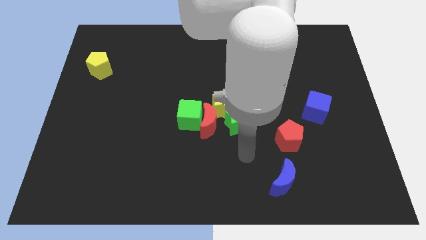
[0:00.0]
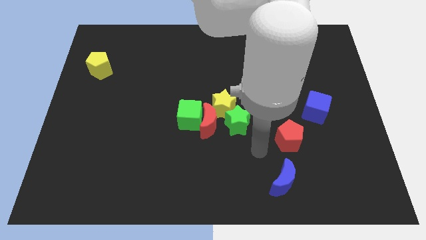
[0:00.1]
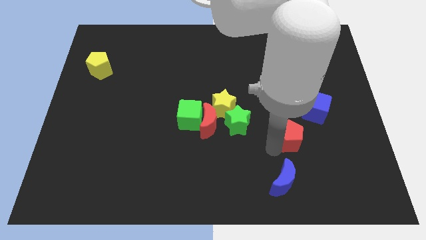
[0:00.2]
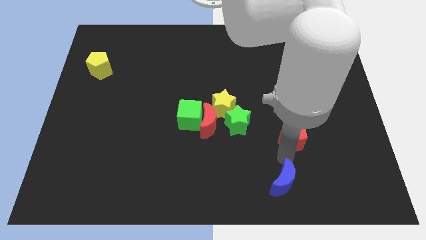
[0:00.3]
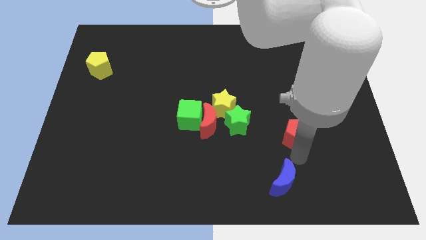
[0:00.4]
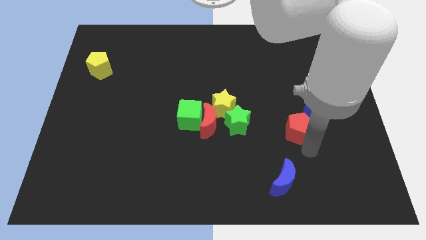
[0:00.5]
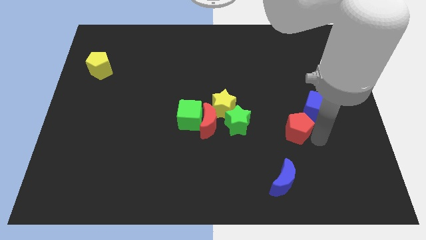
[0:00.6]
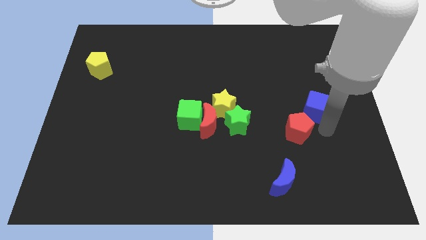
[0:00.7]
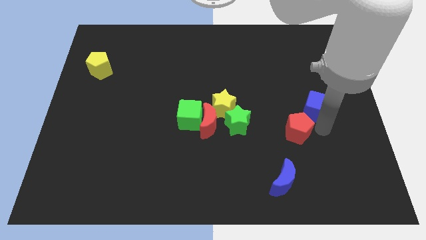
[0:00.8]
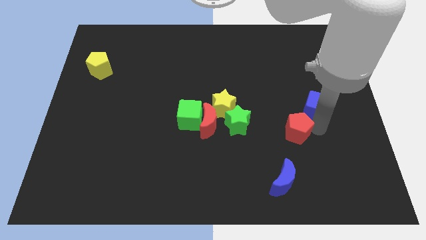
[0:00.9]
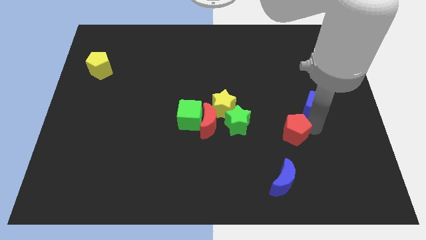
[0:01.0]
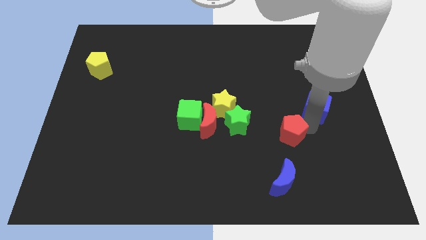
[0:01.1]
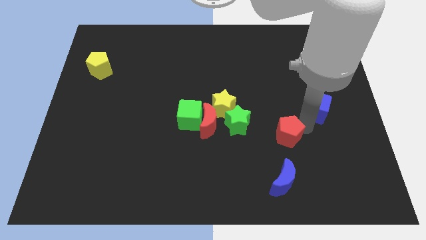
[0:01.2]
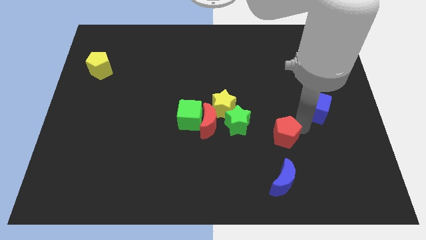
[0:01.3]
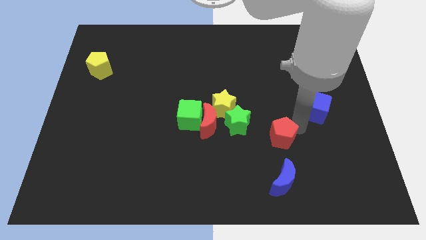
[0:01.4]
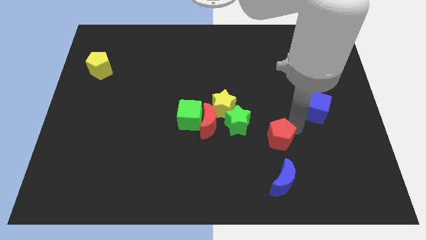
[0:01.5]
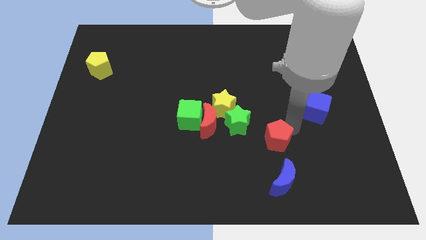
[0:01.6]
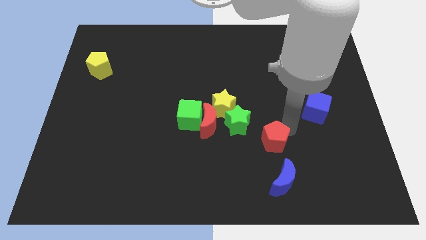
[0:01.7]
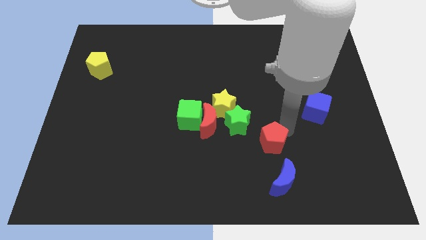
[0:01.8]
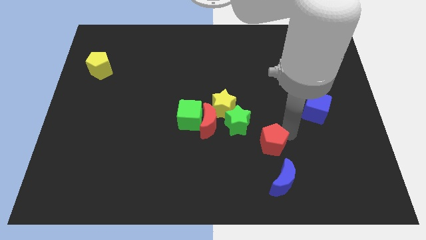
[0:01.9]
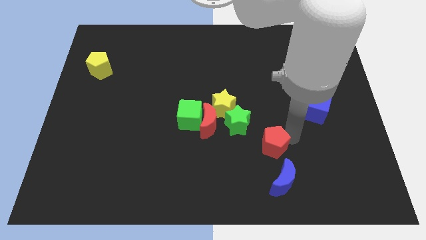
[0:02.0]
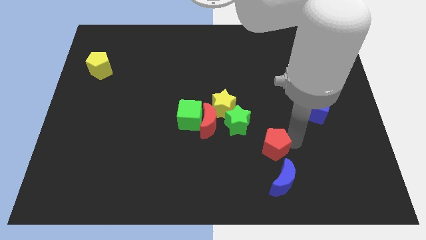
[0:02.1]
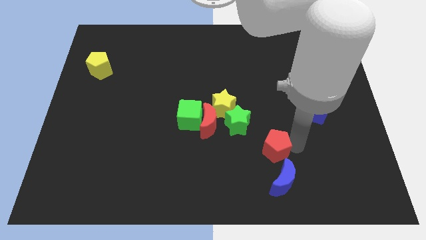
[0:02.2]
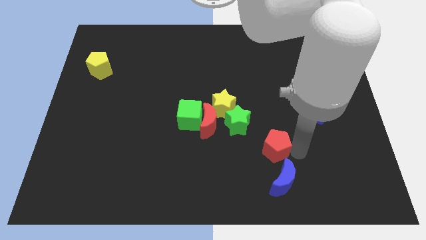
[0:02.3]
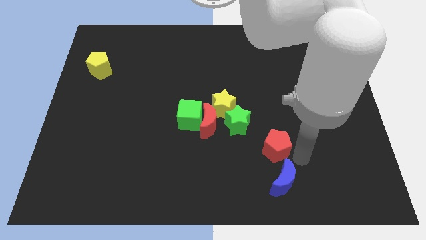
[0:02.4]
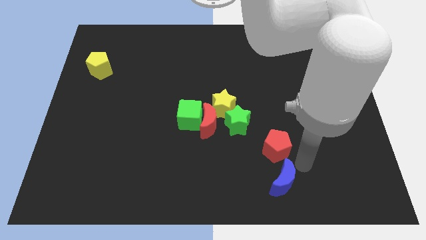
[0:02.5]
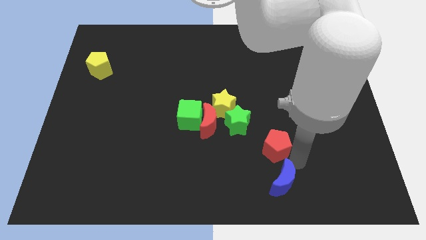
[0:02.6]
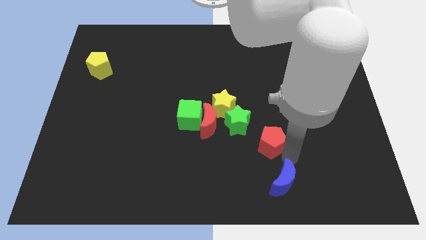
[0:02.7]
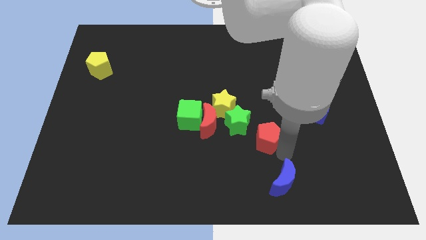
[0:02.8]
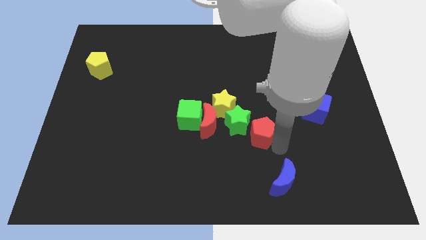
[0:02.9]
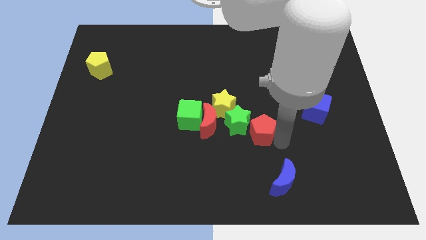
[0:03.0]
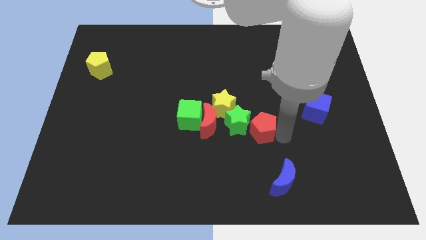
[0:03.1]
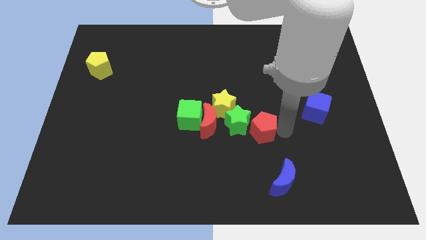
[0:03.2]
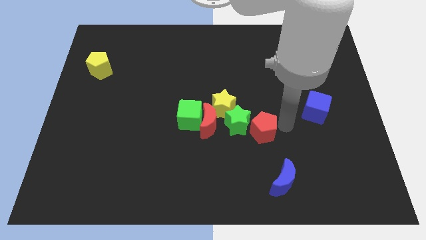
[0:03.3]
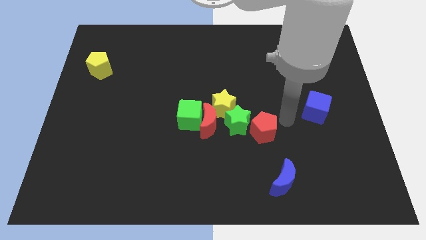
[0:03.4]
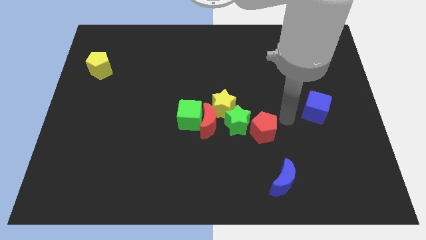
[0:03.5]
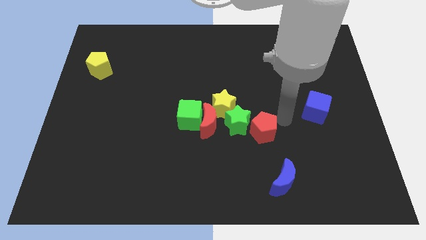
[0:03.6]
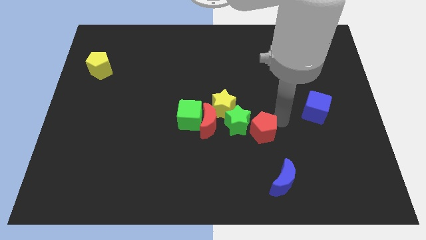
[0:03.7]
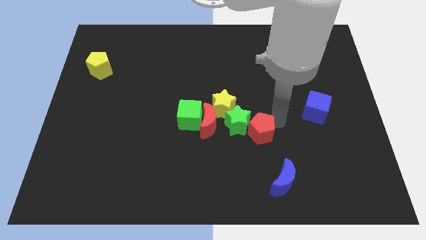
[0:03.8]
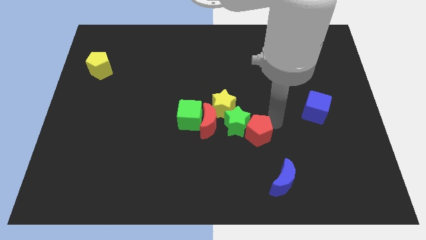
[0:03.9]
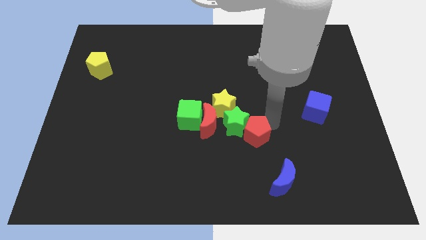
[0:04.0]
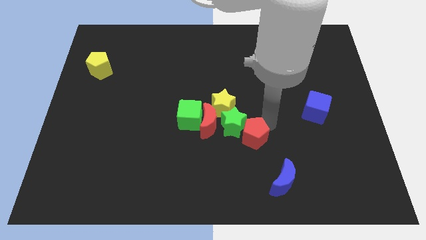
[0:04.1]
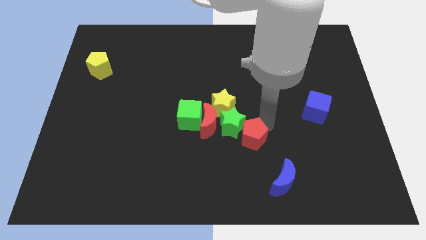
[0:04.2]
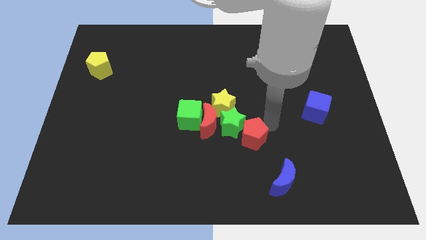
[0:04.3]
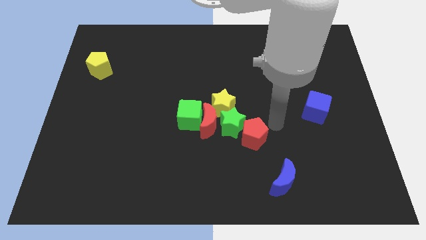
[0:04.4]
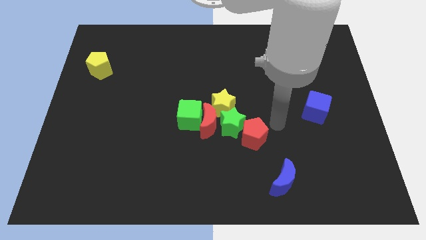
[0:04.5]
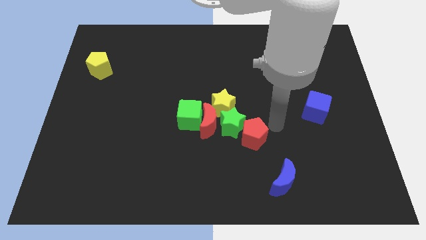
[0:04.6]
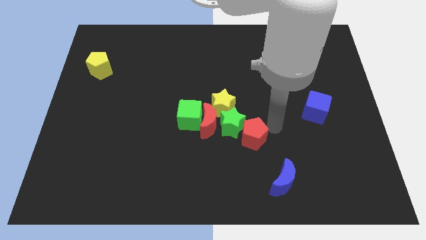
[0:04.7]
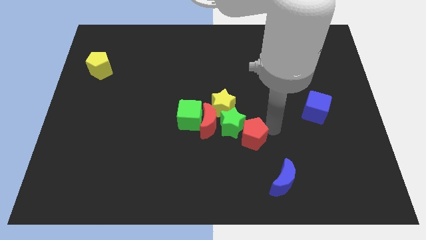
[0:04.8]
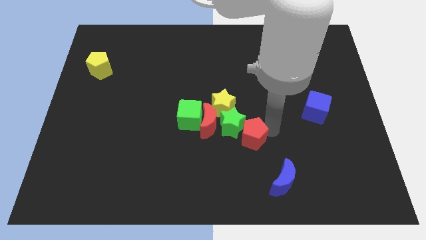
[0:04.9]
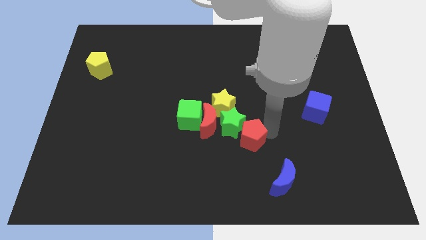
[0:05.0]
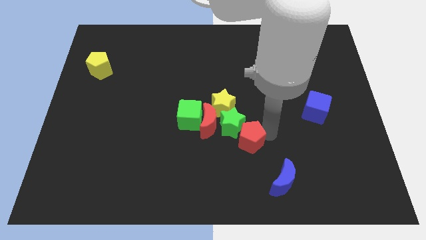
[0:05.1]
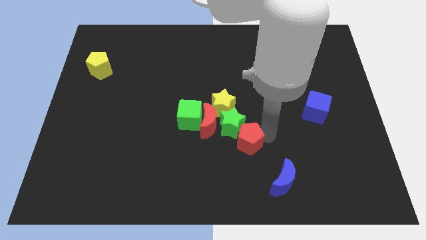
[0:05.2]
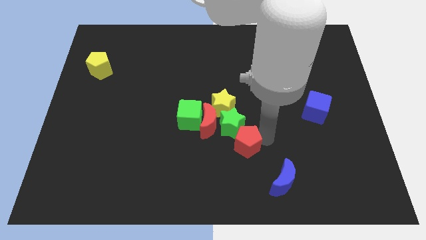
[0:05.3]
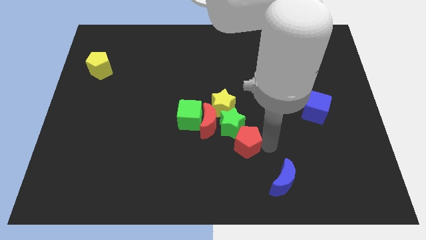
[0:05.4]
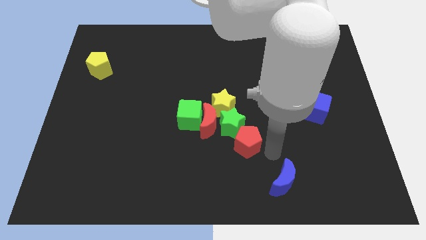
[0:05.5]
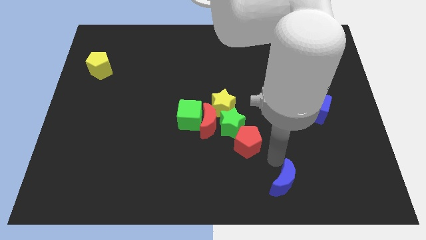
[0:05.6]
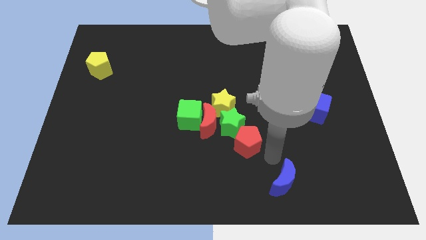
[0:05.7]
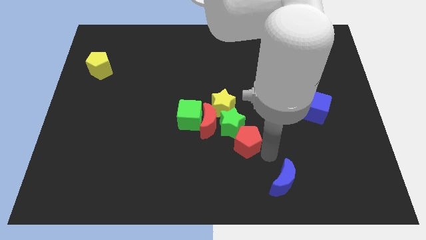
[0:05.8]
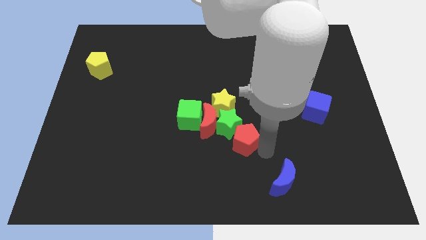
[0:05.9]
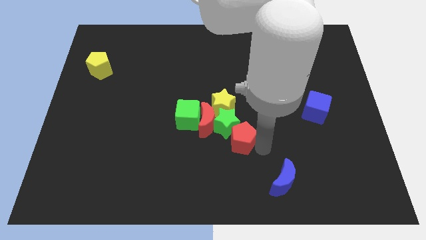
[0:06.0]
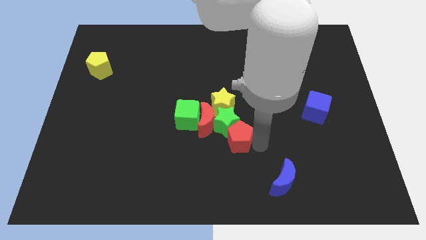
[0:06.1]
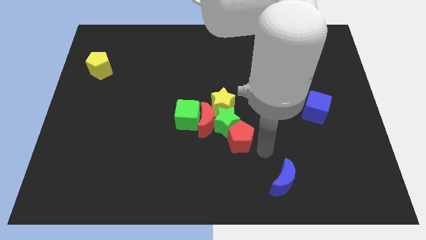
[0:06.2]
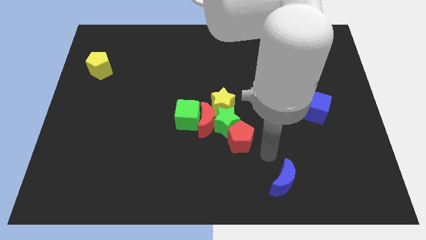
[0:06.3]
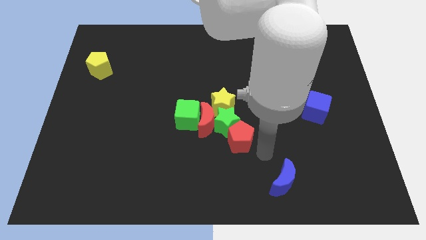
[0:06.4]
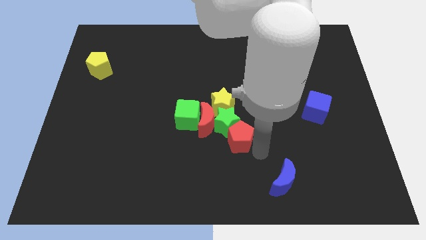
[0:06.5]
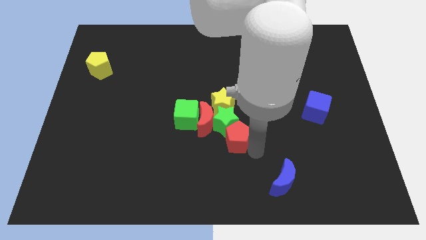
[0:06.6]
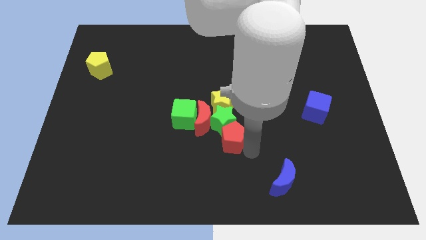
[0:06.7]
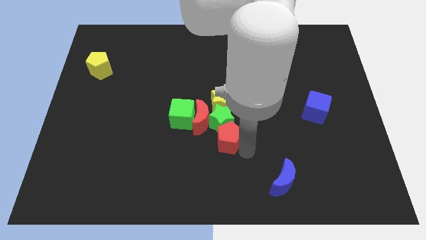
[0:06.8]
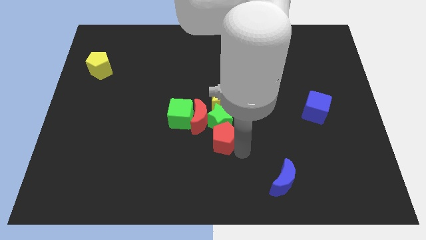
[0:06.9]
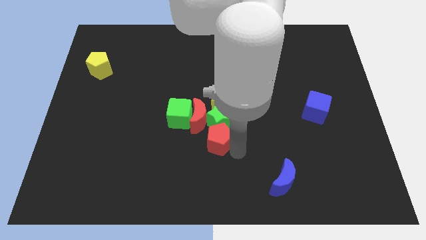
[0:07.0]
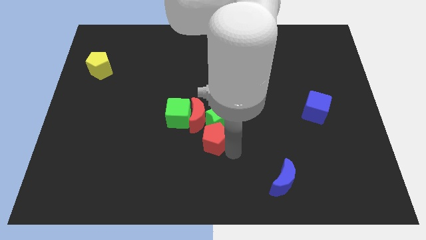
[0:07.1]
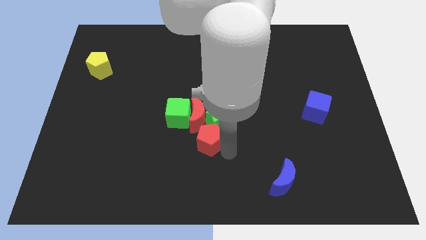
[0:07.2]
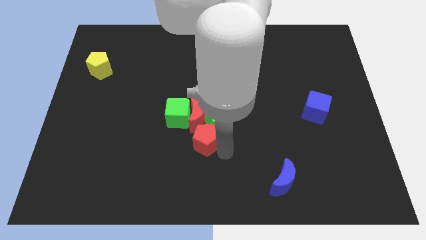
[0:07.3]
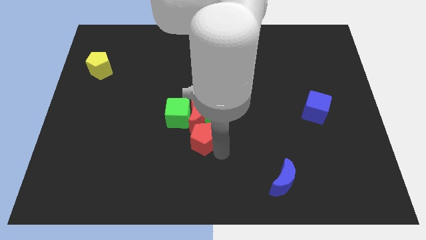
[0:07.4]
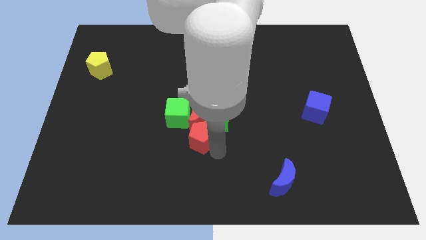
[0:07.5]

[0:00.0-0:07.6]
push the red pentagon towards the red moon
